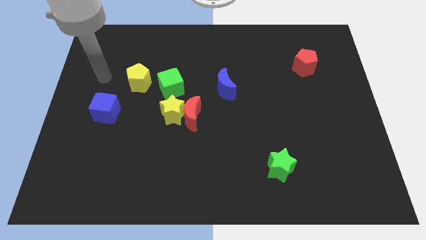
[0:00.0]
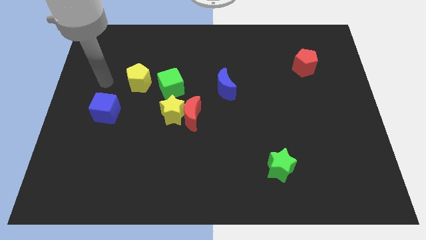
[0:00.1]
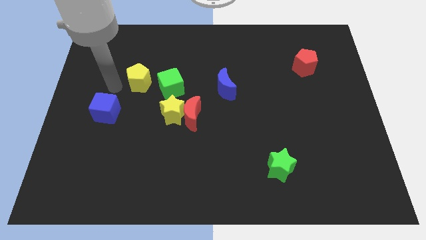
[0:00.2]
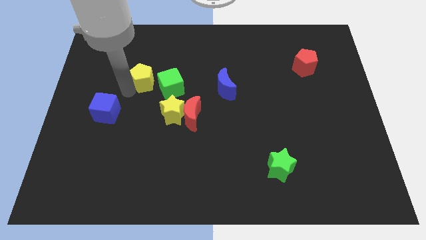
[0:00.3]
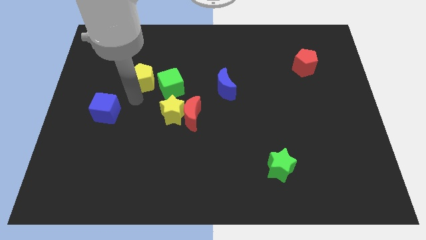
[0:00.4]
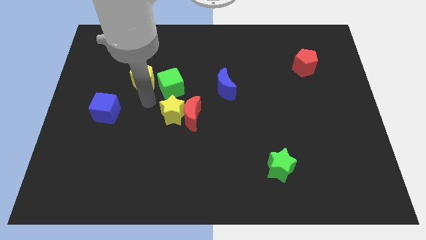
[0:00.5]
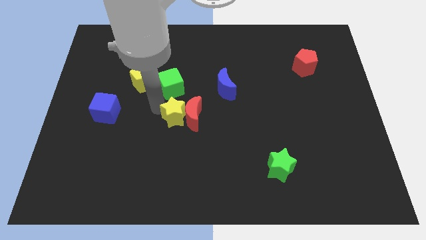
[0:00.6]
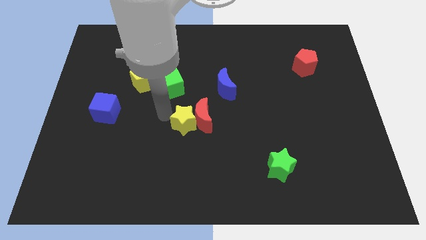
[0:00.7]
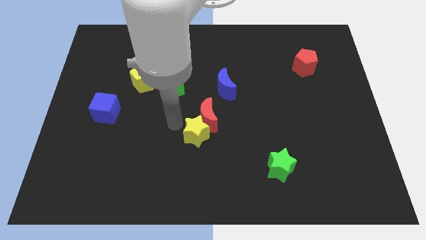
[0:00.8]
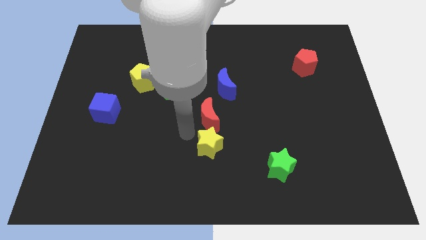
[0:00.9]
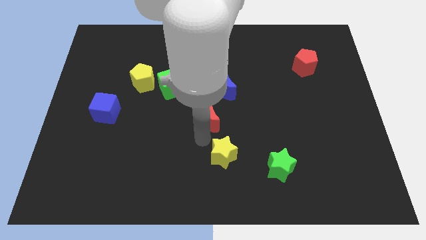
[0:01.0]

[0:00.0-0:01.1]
pull the red moon apart from the yellow star

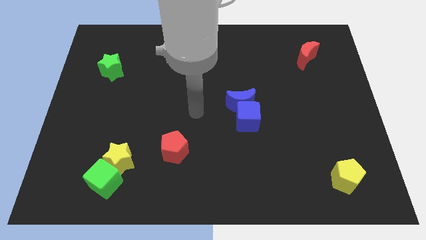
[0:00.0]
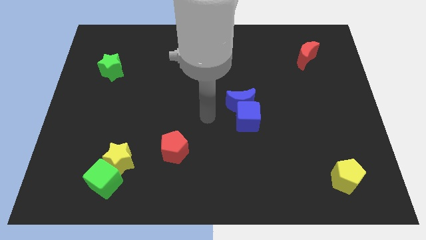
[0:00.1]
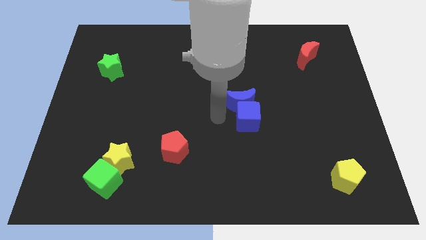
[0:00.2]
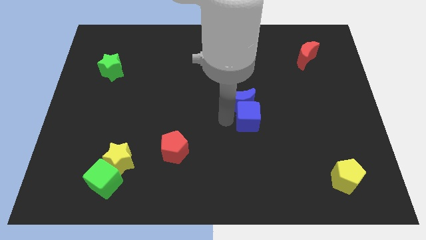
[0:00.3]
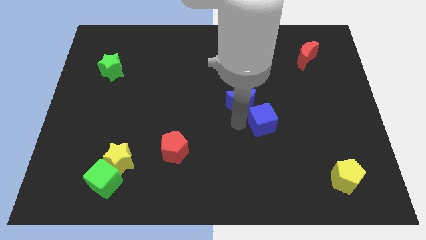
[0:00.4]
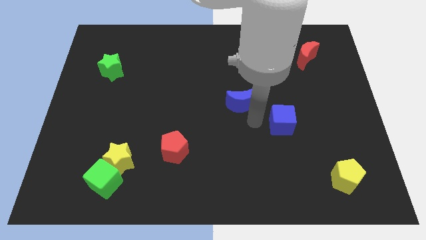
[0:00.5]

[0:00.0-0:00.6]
move the blue moon away from the blue cube

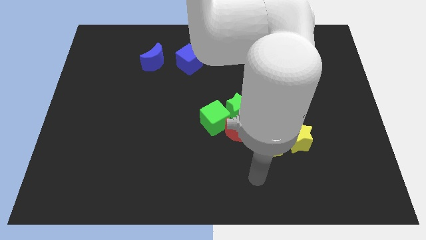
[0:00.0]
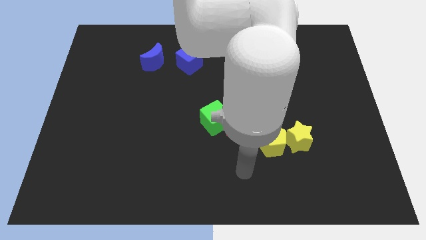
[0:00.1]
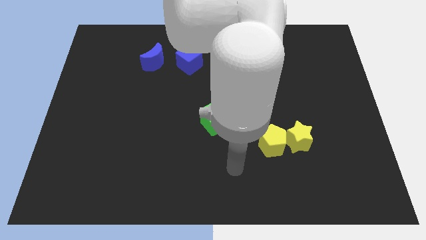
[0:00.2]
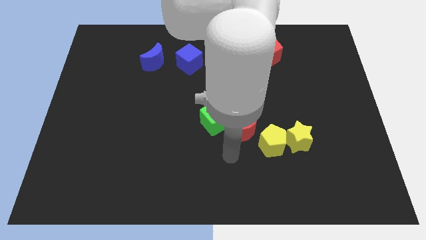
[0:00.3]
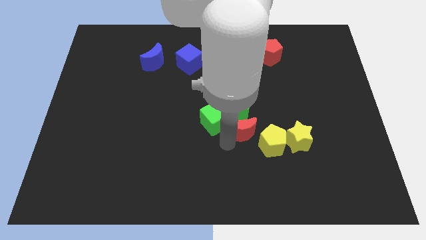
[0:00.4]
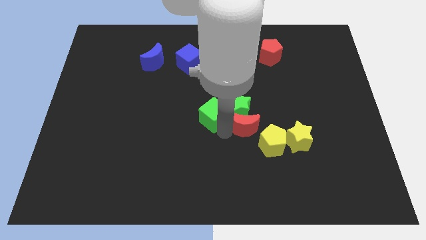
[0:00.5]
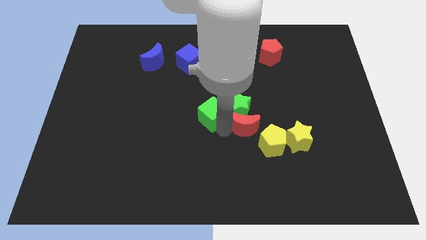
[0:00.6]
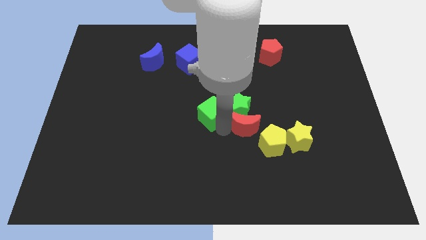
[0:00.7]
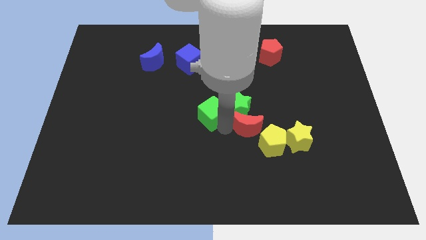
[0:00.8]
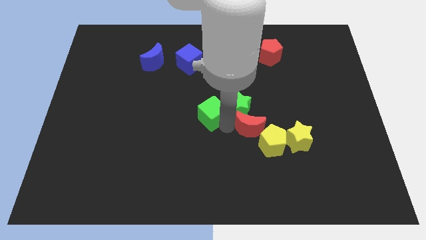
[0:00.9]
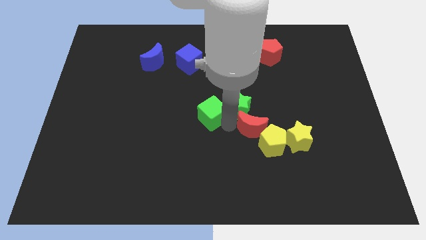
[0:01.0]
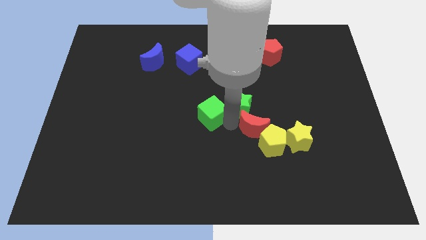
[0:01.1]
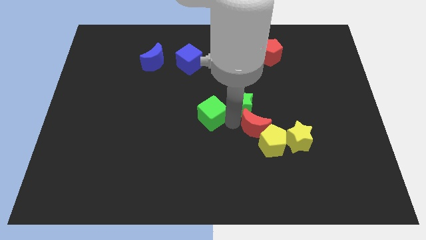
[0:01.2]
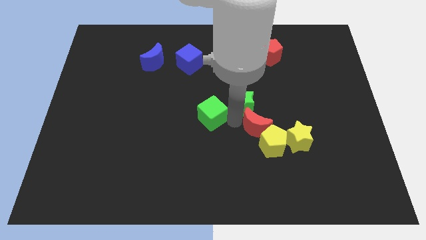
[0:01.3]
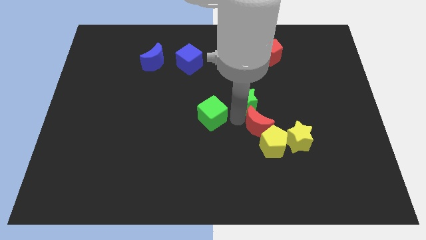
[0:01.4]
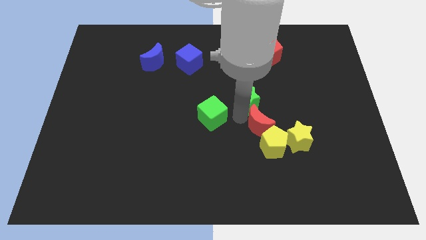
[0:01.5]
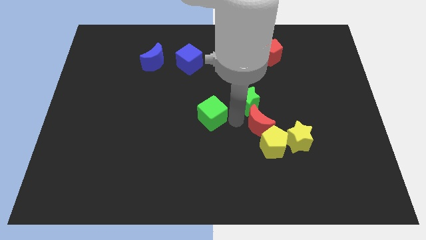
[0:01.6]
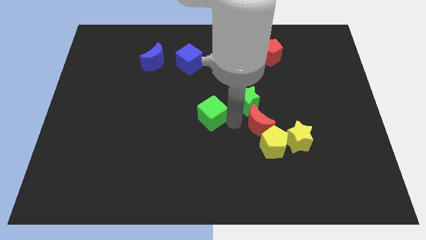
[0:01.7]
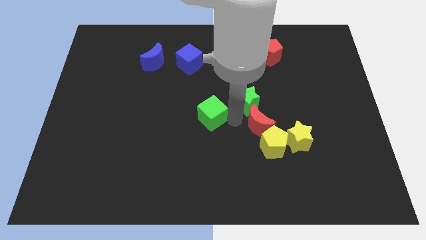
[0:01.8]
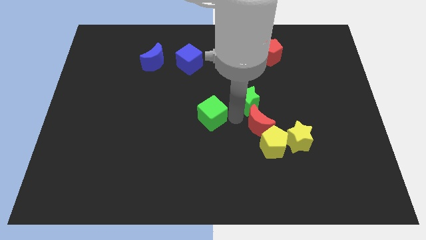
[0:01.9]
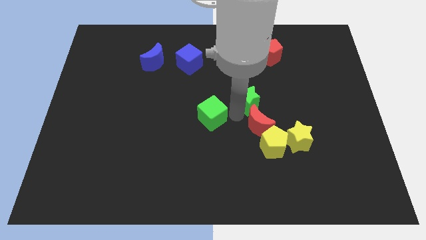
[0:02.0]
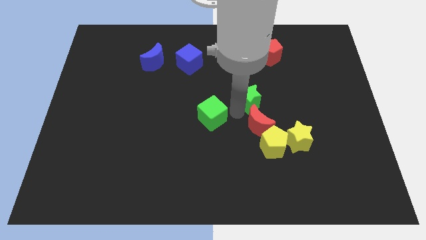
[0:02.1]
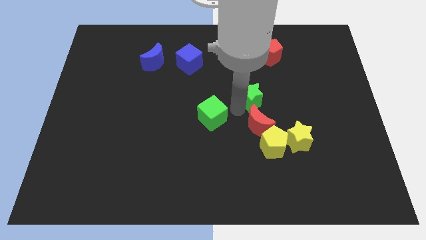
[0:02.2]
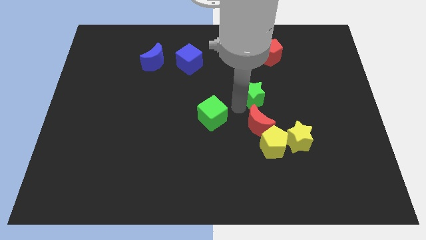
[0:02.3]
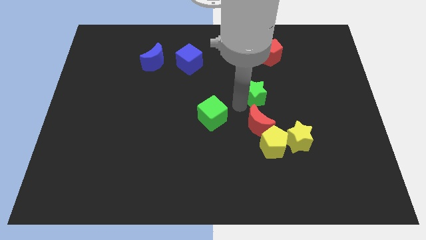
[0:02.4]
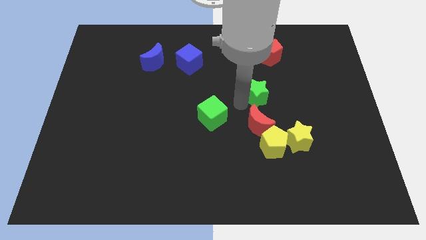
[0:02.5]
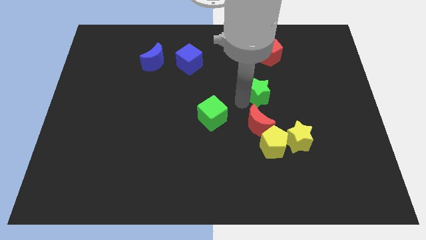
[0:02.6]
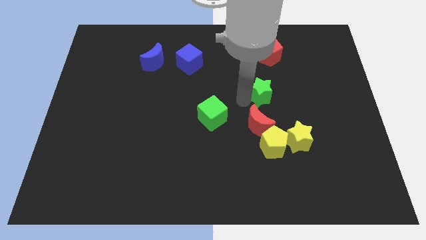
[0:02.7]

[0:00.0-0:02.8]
move the green star away from the red moon and green cube

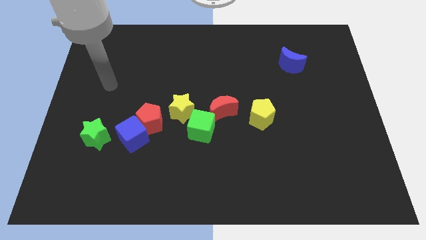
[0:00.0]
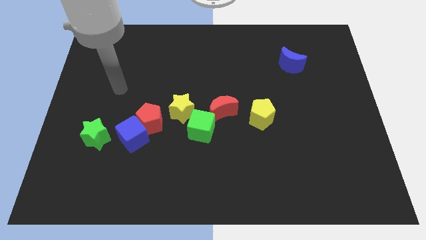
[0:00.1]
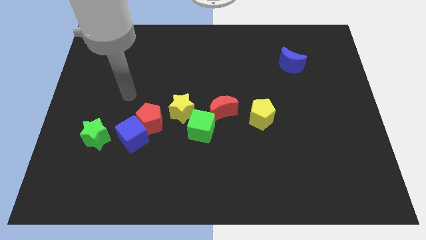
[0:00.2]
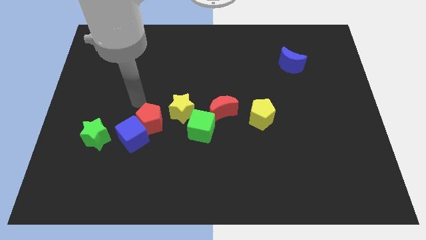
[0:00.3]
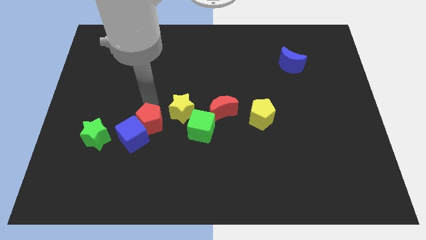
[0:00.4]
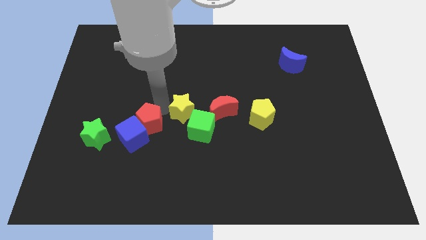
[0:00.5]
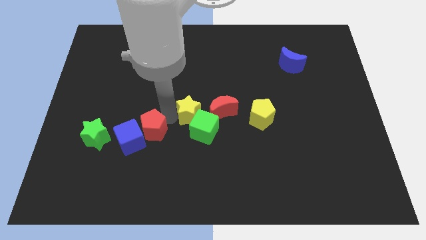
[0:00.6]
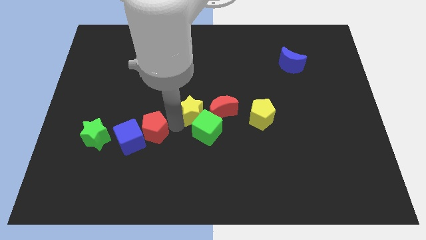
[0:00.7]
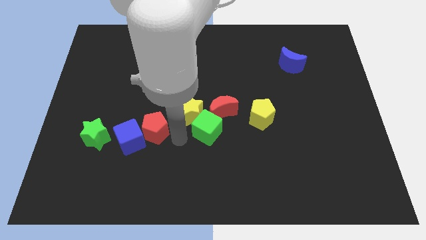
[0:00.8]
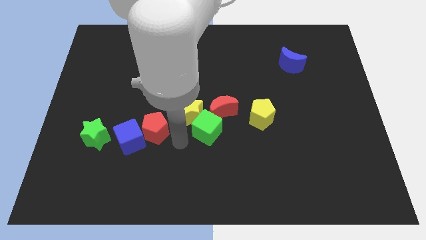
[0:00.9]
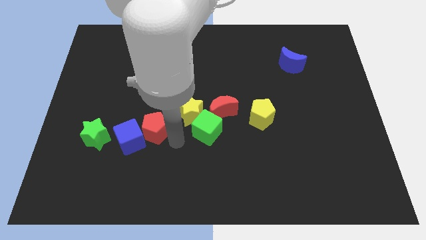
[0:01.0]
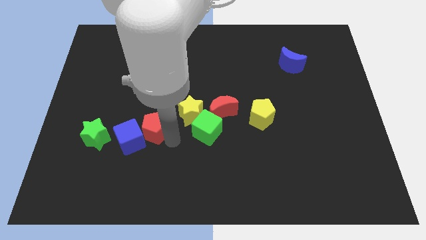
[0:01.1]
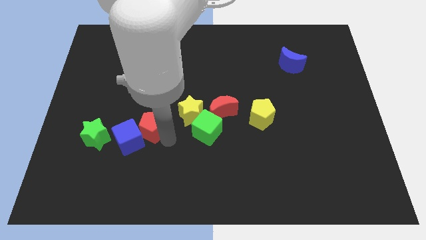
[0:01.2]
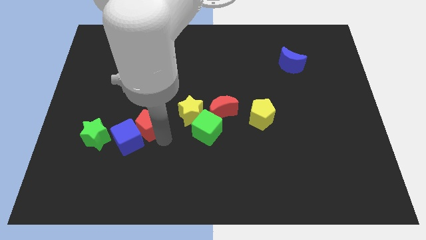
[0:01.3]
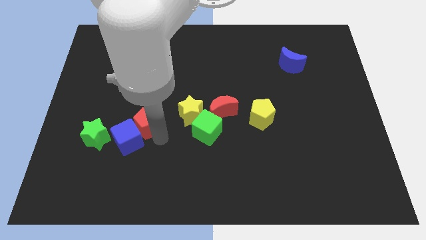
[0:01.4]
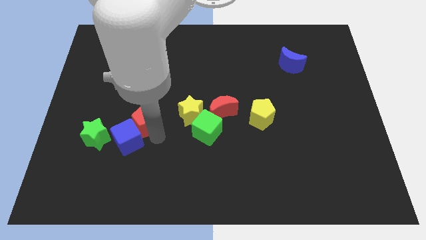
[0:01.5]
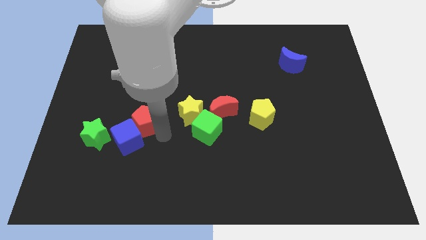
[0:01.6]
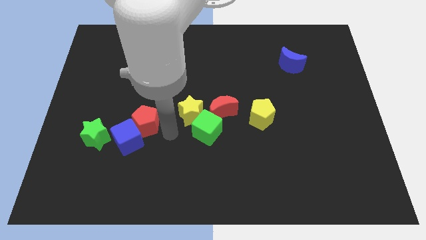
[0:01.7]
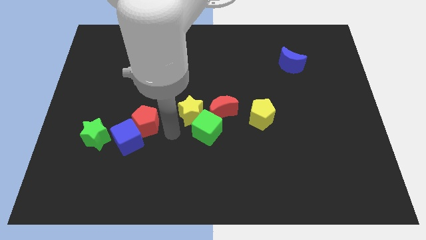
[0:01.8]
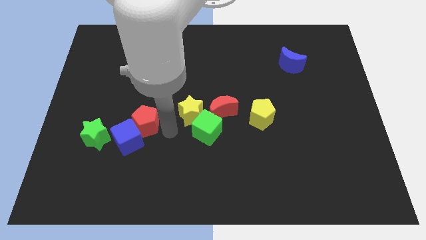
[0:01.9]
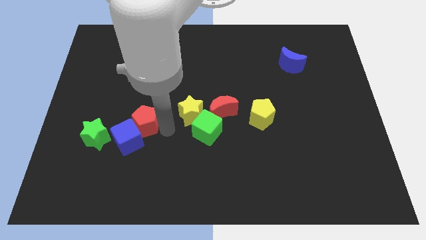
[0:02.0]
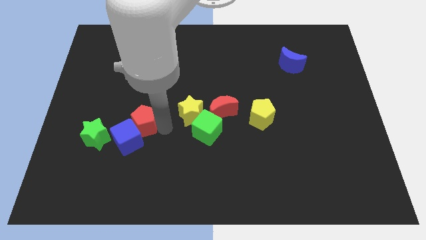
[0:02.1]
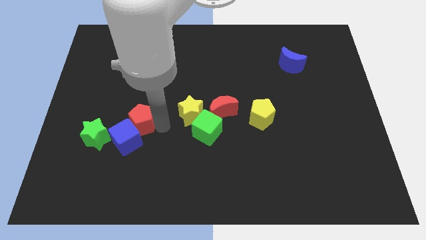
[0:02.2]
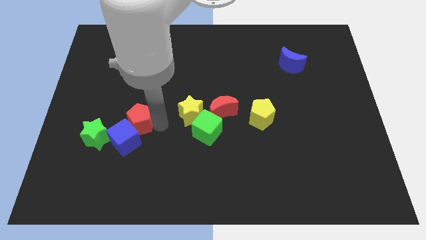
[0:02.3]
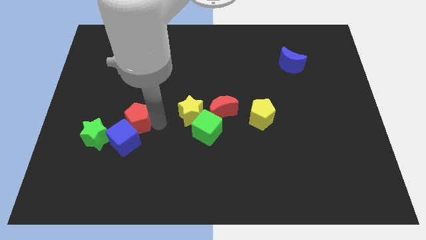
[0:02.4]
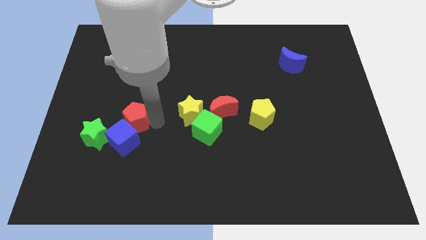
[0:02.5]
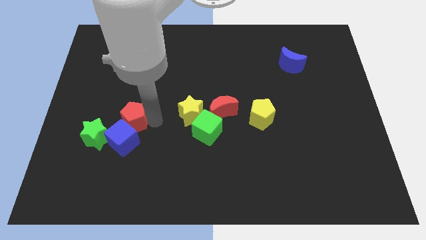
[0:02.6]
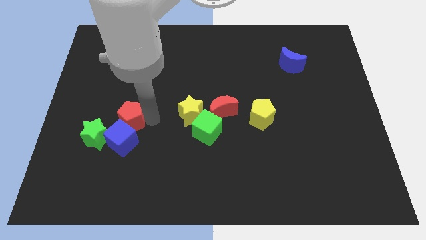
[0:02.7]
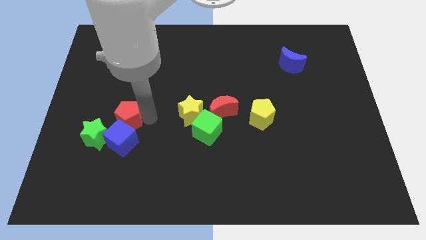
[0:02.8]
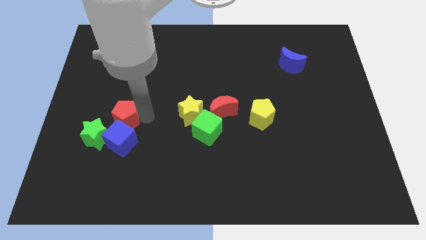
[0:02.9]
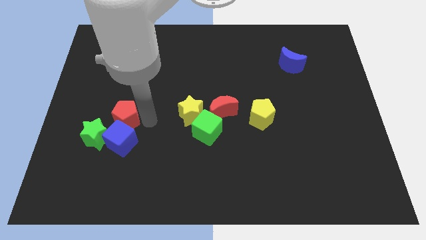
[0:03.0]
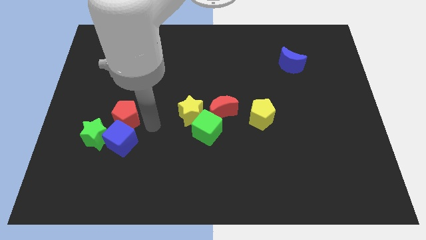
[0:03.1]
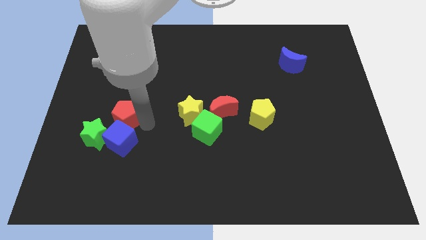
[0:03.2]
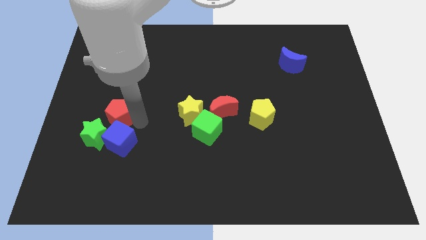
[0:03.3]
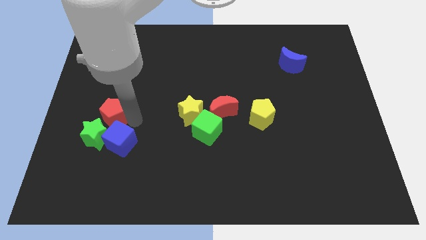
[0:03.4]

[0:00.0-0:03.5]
pull the red pentagon apart from the blue cube and yellow star

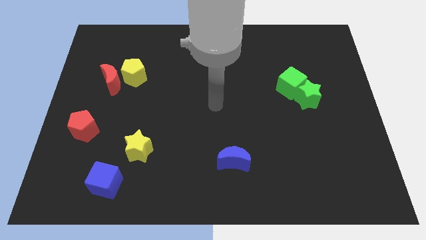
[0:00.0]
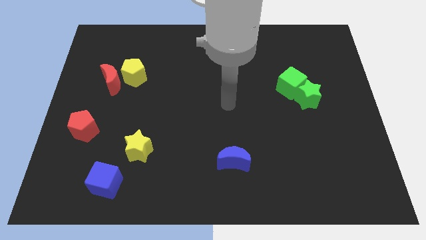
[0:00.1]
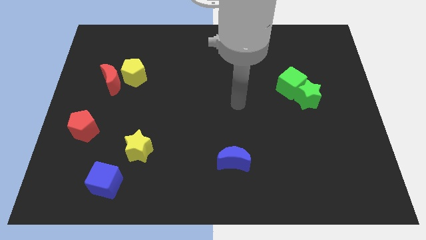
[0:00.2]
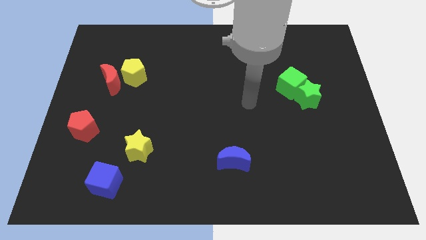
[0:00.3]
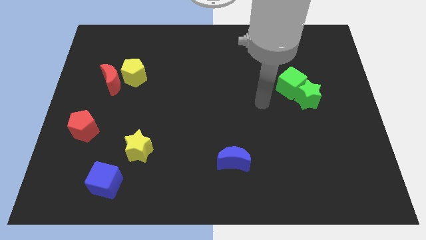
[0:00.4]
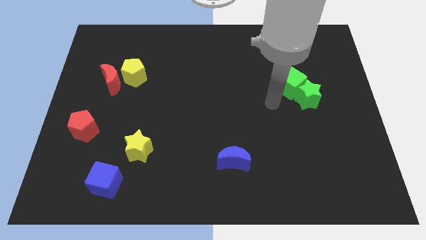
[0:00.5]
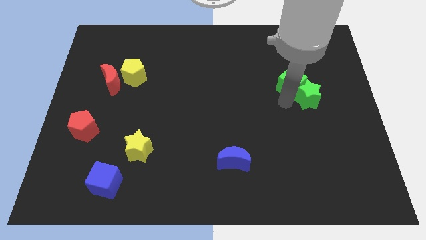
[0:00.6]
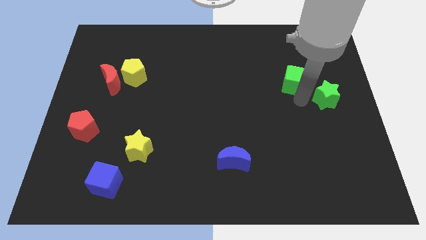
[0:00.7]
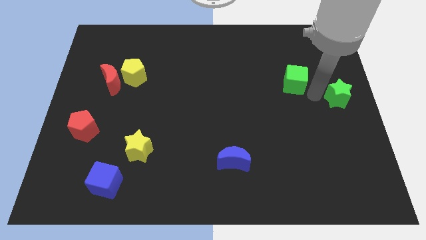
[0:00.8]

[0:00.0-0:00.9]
separate the green cube from the green star

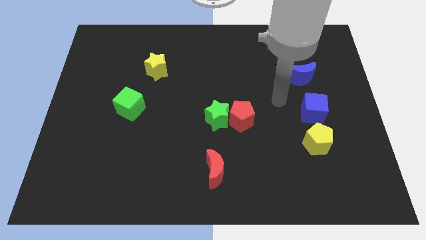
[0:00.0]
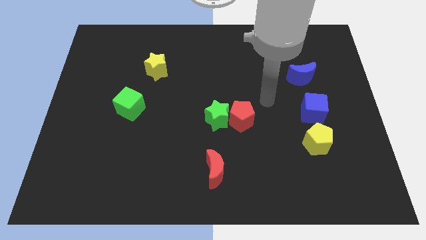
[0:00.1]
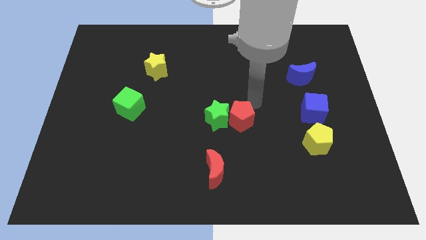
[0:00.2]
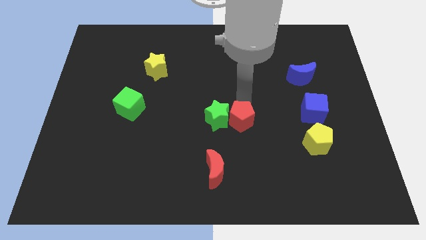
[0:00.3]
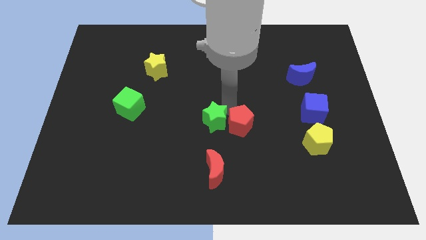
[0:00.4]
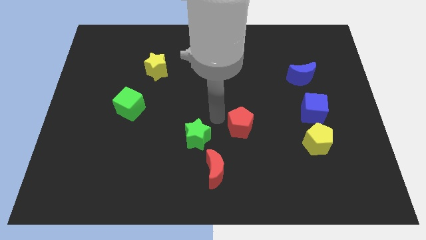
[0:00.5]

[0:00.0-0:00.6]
separate the red pentagon from the green star
